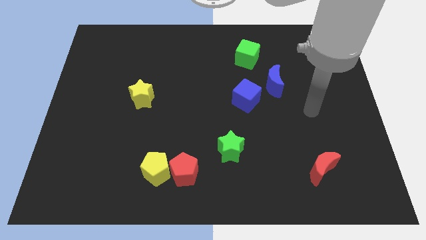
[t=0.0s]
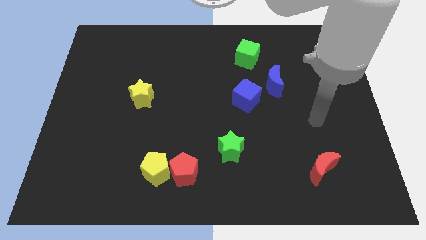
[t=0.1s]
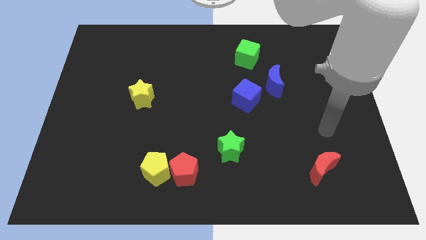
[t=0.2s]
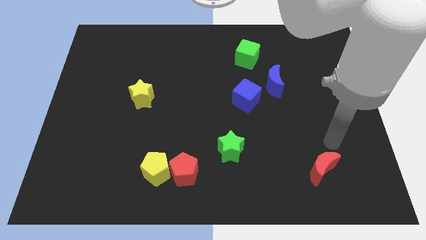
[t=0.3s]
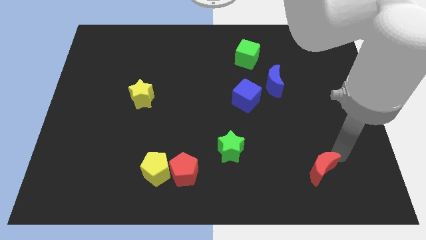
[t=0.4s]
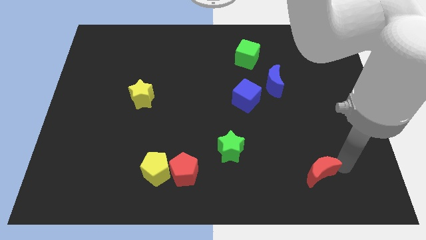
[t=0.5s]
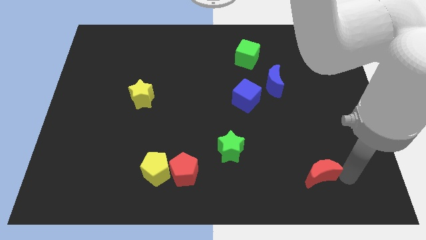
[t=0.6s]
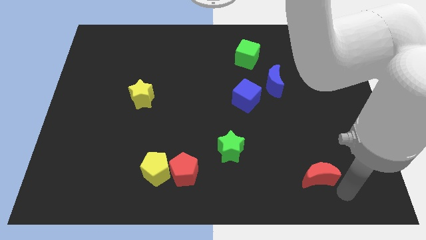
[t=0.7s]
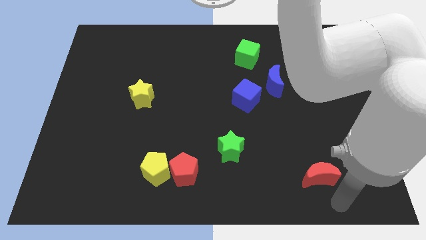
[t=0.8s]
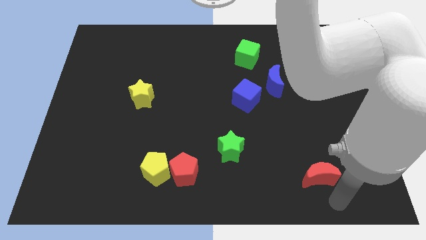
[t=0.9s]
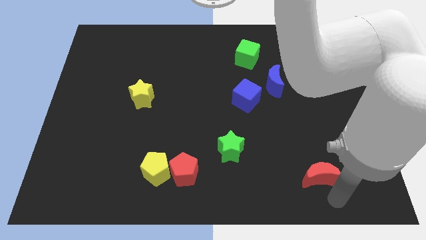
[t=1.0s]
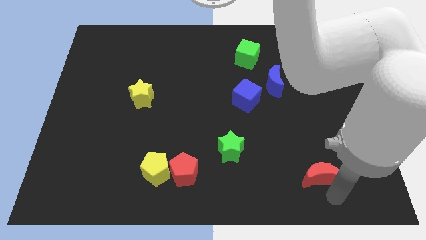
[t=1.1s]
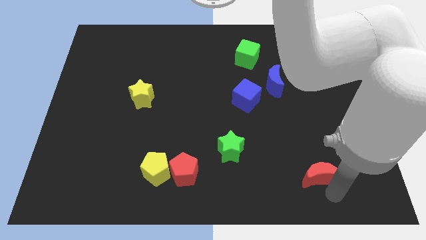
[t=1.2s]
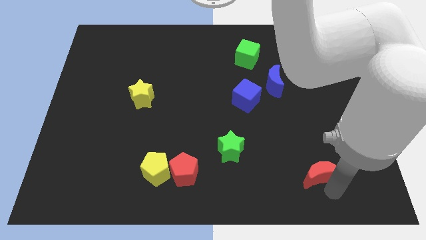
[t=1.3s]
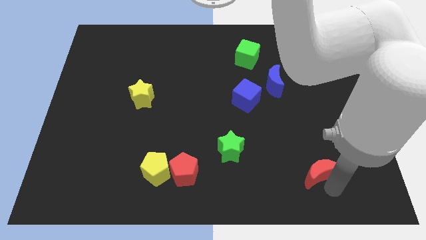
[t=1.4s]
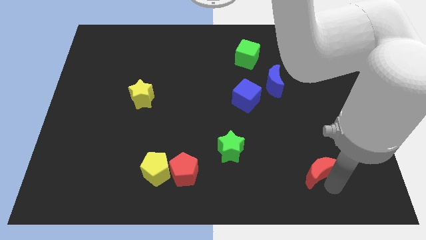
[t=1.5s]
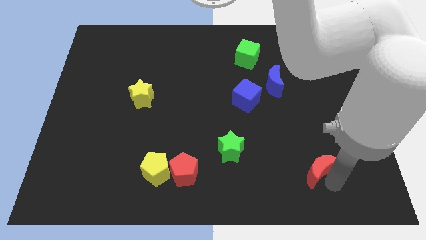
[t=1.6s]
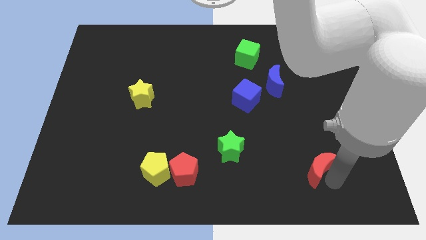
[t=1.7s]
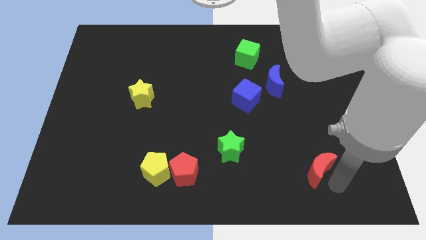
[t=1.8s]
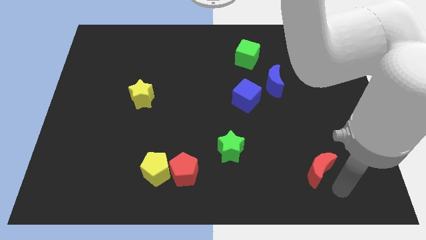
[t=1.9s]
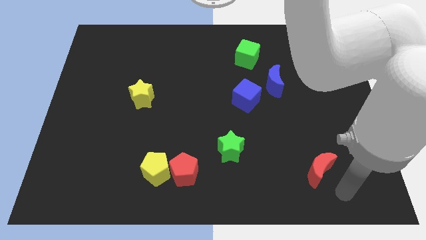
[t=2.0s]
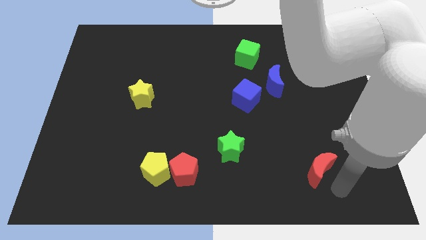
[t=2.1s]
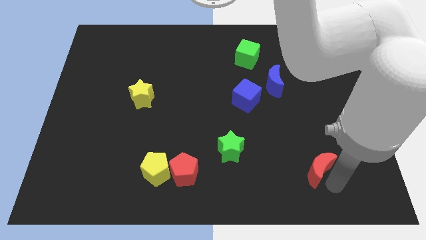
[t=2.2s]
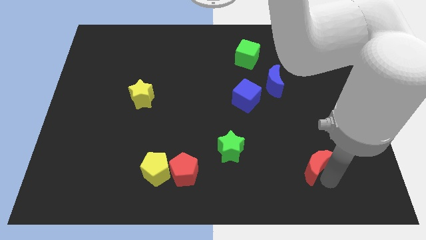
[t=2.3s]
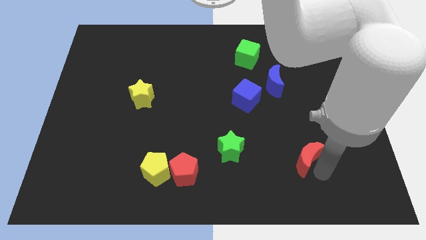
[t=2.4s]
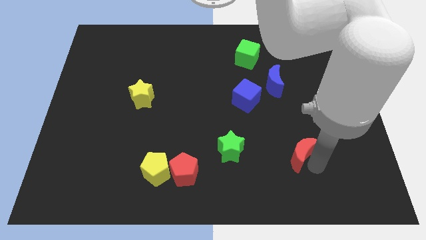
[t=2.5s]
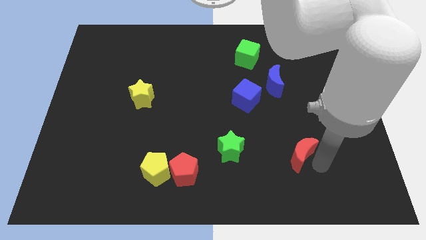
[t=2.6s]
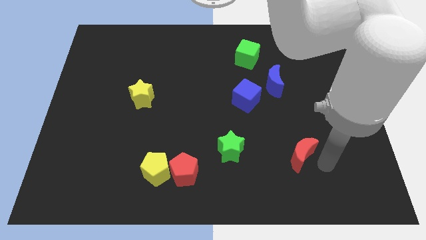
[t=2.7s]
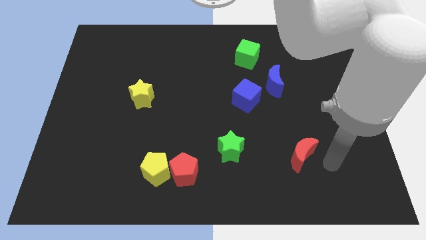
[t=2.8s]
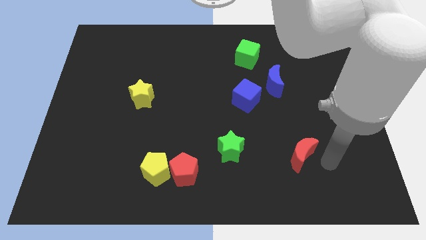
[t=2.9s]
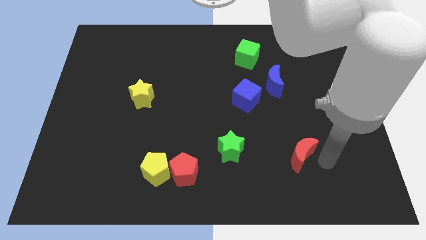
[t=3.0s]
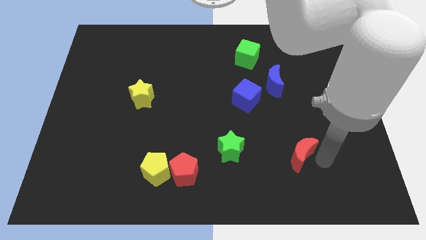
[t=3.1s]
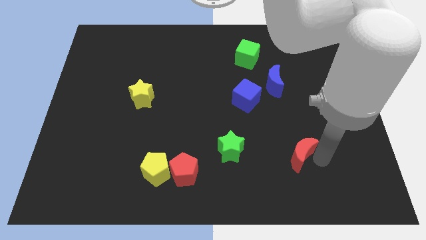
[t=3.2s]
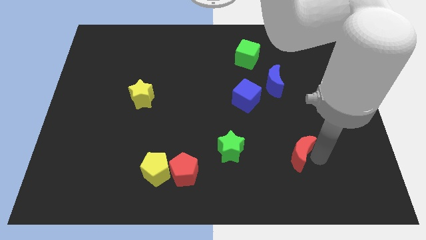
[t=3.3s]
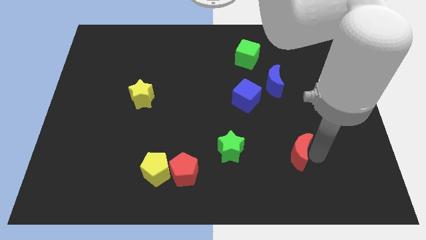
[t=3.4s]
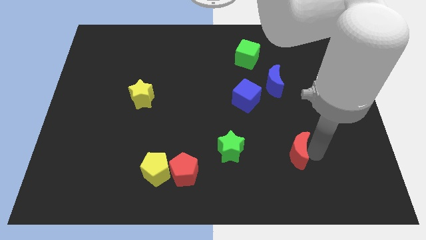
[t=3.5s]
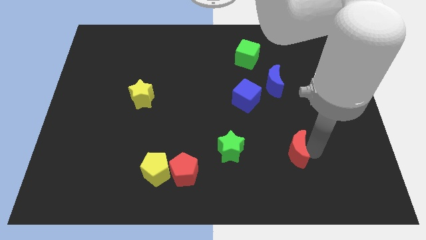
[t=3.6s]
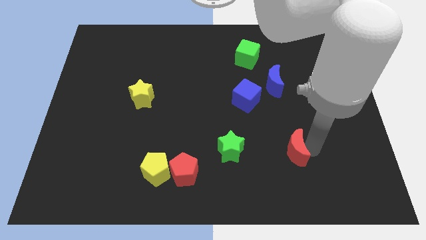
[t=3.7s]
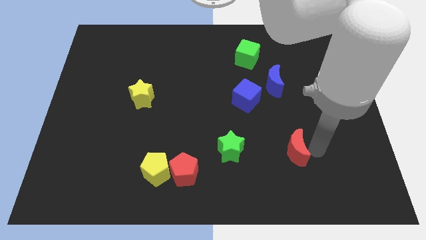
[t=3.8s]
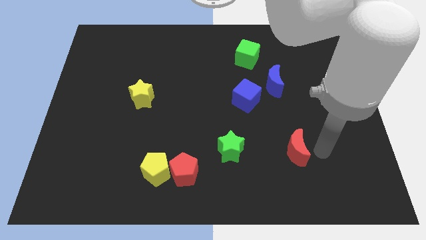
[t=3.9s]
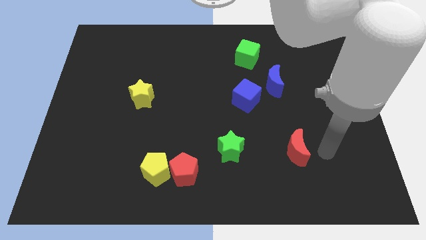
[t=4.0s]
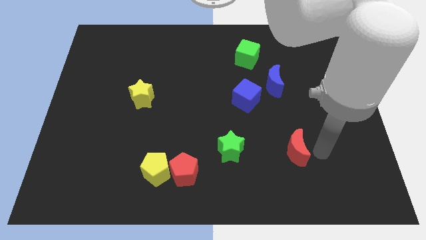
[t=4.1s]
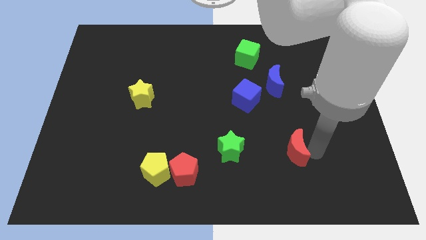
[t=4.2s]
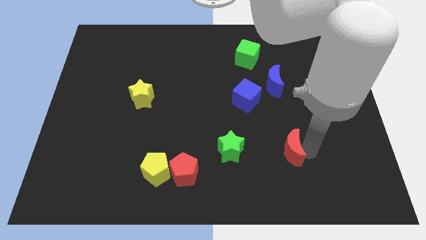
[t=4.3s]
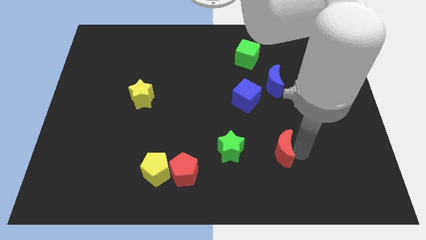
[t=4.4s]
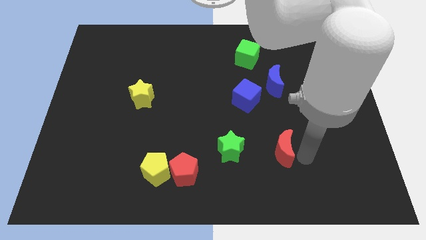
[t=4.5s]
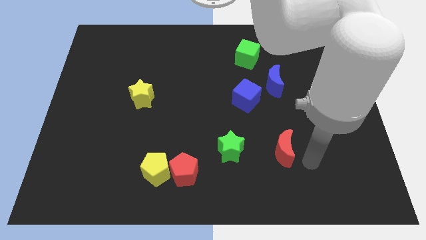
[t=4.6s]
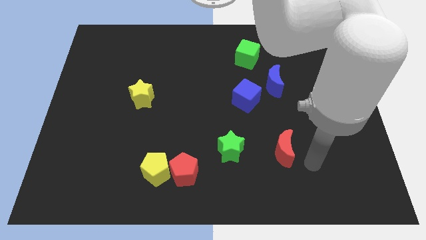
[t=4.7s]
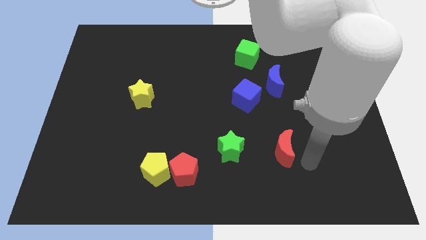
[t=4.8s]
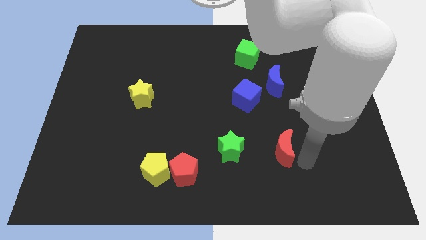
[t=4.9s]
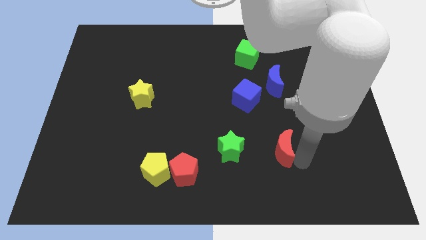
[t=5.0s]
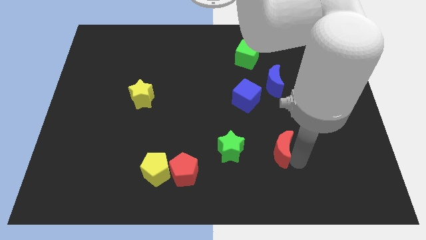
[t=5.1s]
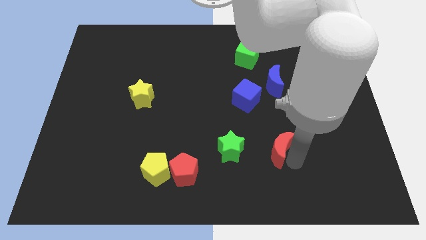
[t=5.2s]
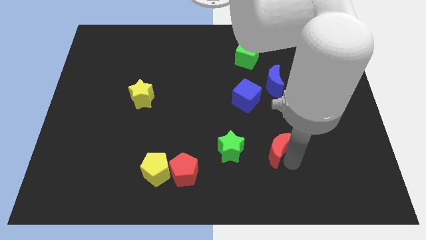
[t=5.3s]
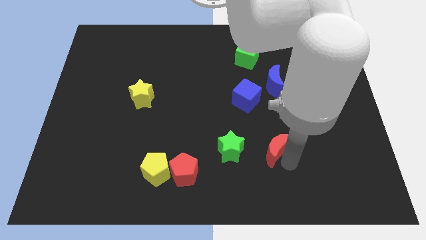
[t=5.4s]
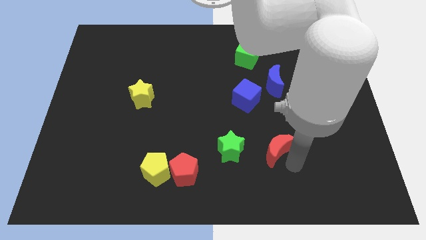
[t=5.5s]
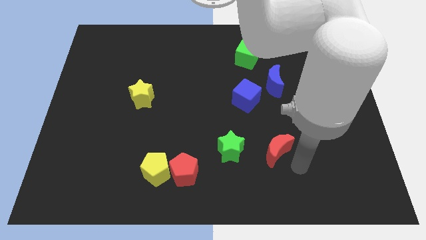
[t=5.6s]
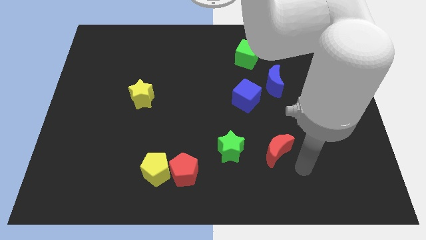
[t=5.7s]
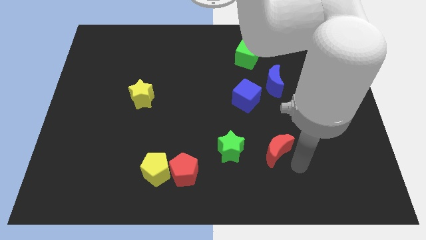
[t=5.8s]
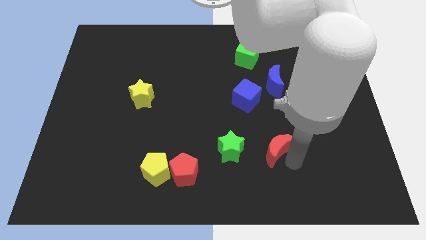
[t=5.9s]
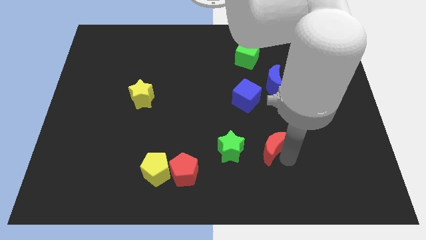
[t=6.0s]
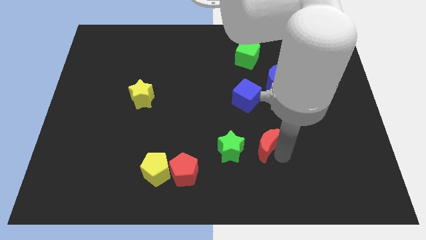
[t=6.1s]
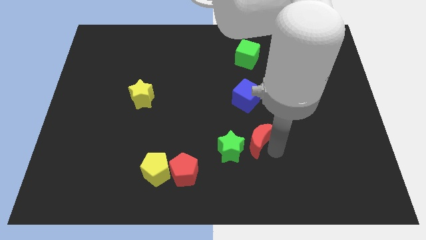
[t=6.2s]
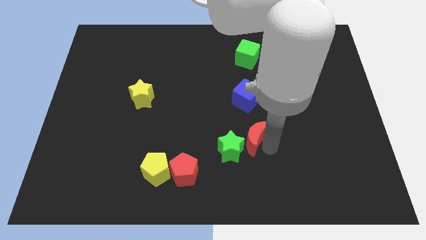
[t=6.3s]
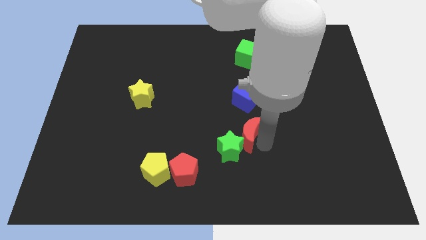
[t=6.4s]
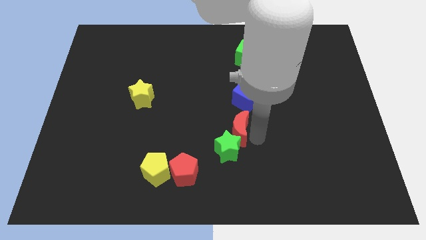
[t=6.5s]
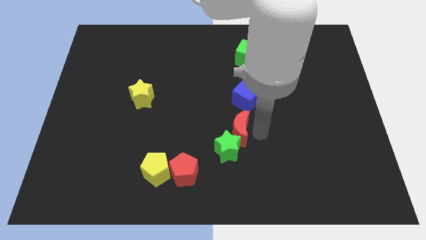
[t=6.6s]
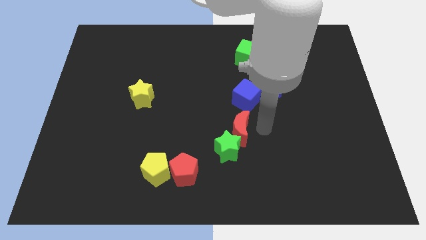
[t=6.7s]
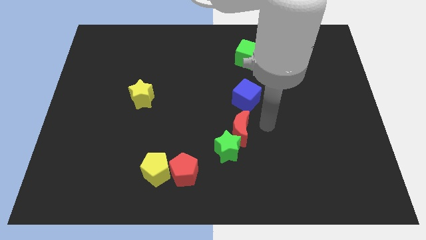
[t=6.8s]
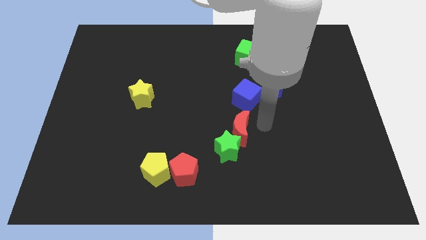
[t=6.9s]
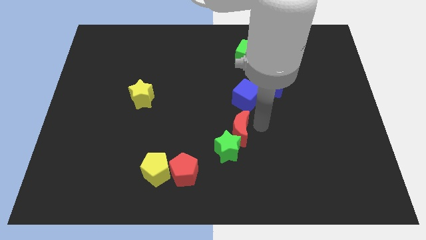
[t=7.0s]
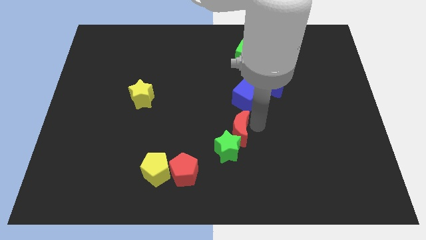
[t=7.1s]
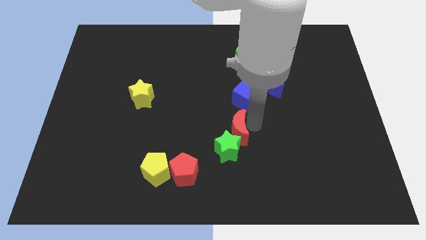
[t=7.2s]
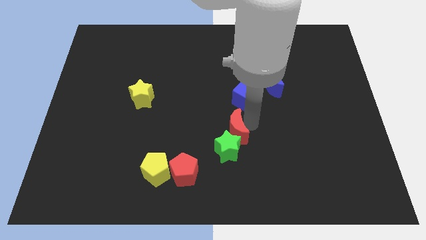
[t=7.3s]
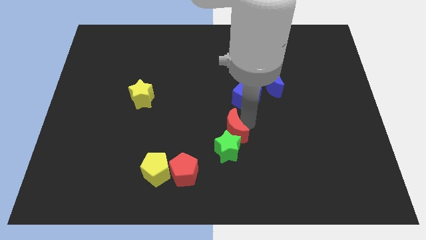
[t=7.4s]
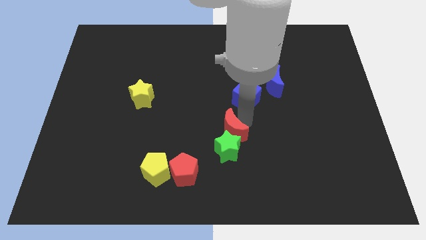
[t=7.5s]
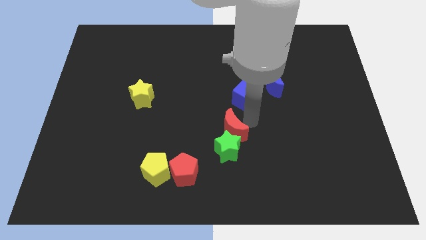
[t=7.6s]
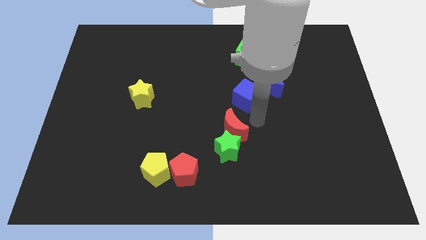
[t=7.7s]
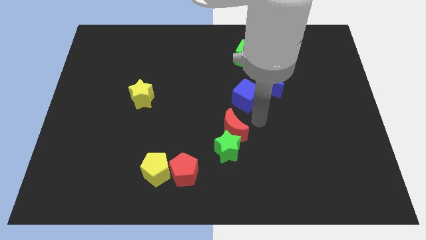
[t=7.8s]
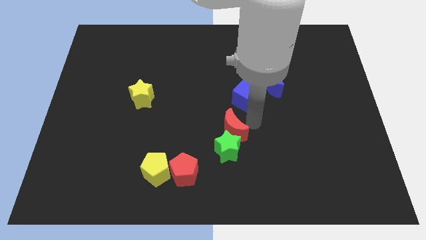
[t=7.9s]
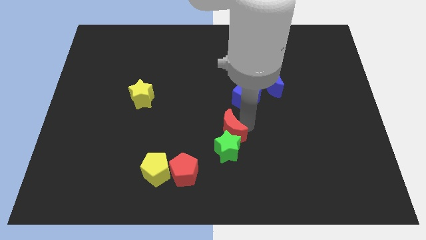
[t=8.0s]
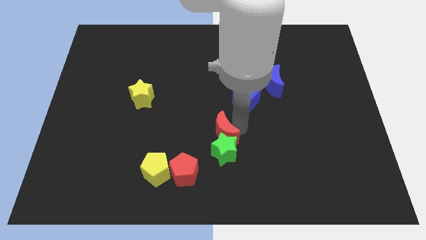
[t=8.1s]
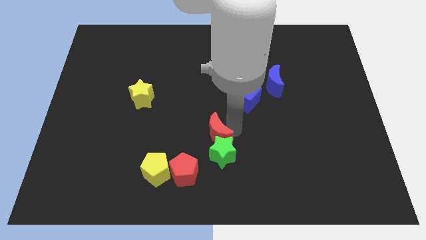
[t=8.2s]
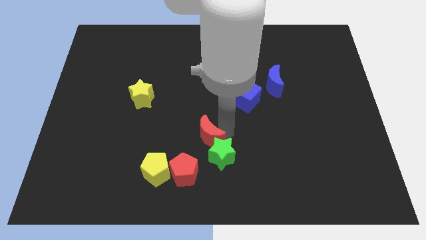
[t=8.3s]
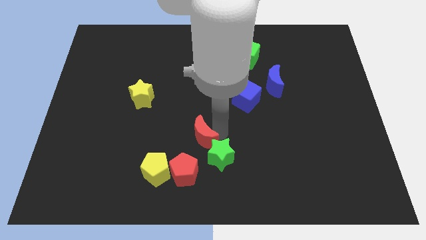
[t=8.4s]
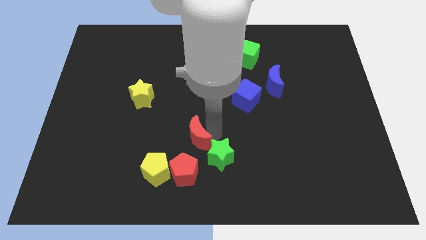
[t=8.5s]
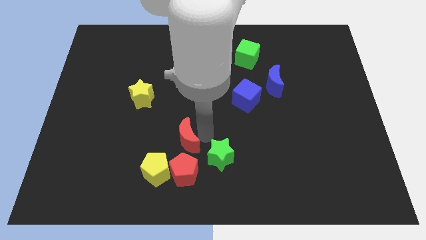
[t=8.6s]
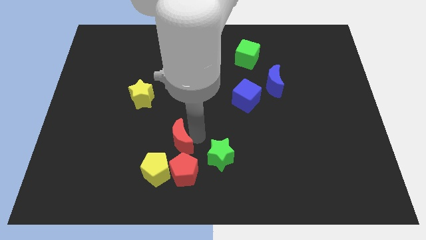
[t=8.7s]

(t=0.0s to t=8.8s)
put the red moon diagonally up and to the left of the red pentagon
